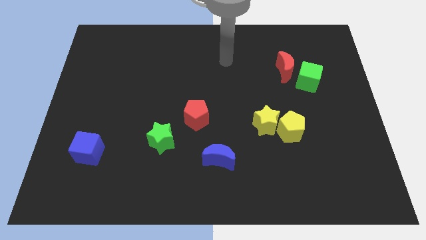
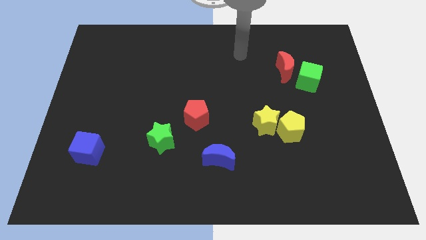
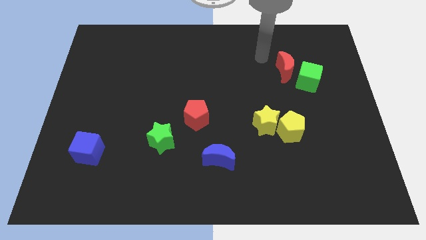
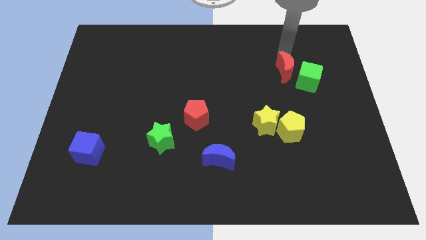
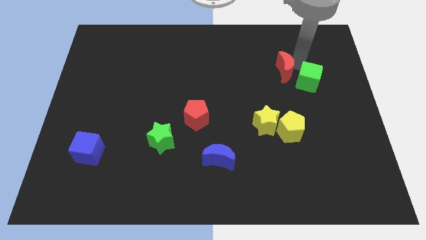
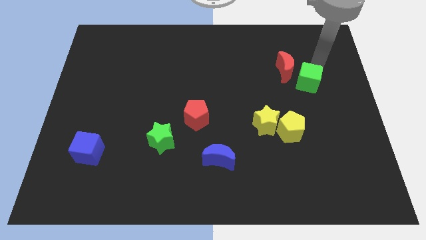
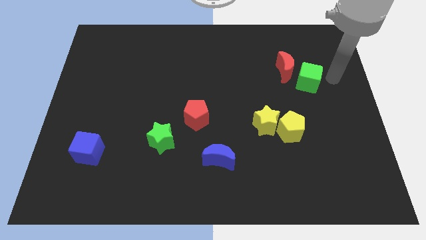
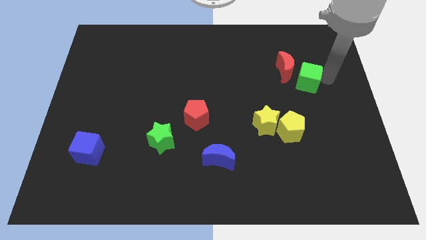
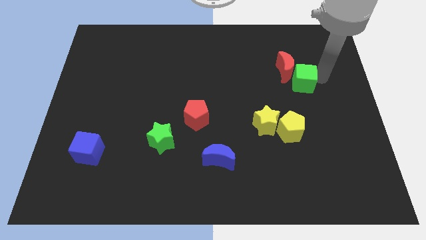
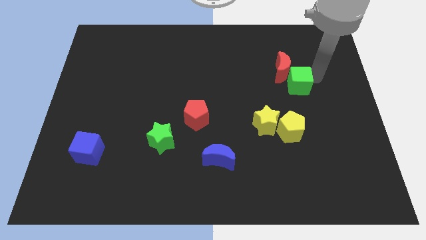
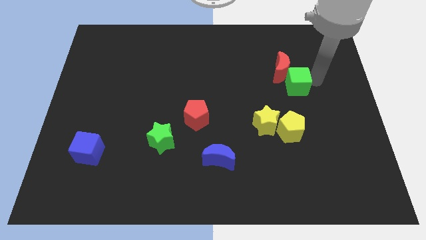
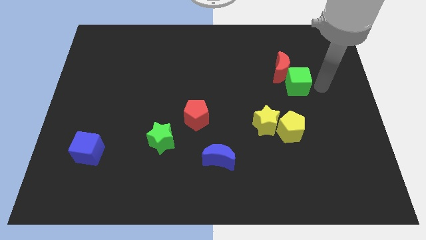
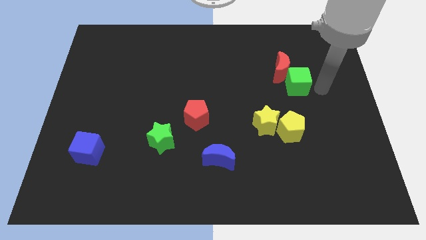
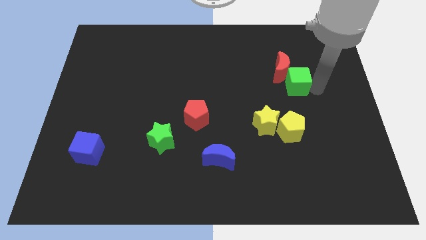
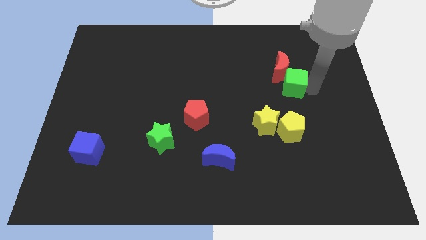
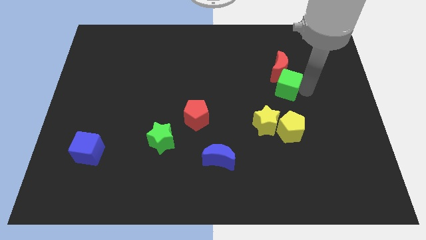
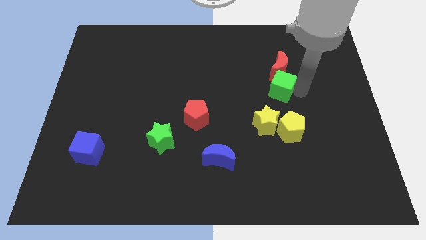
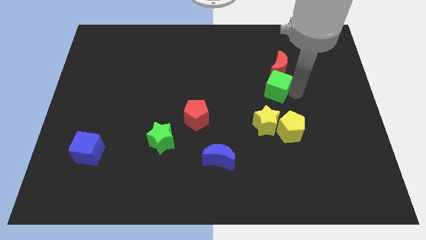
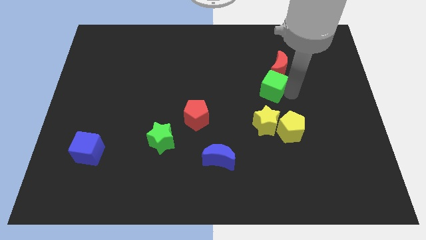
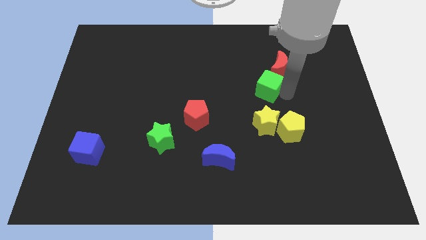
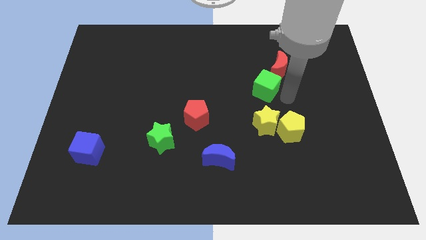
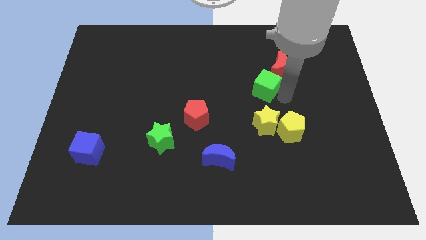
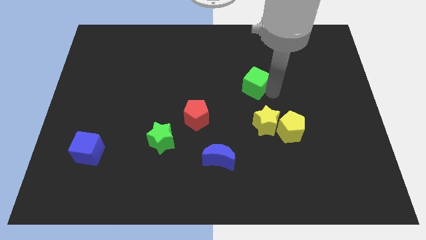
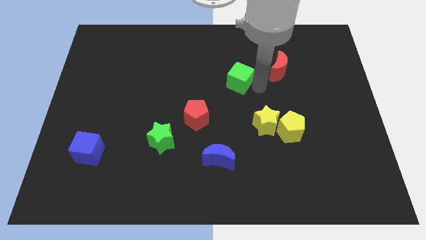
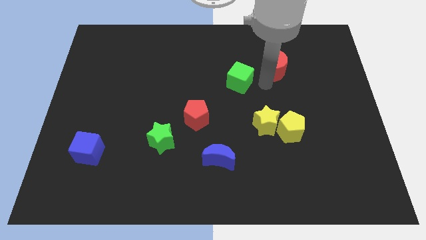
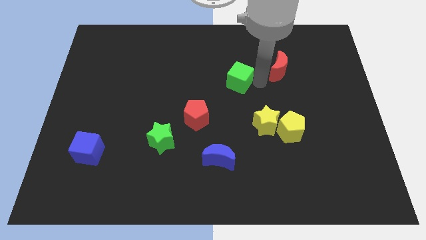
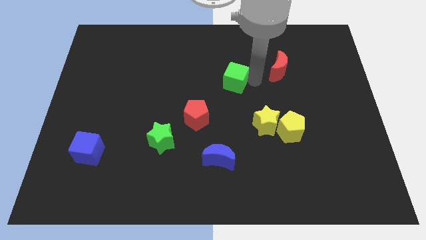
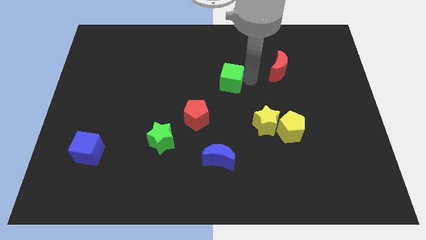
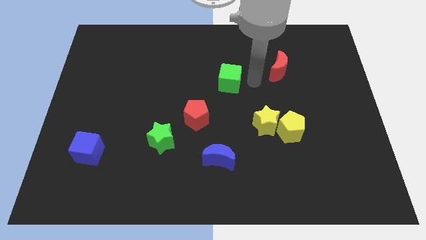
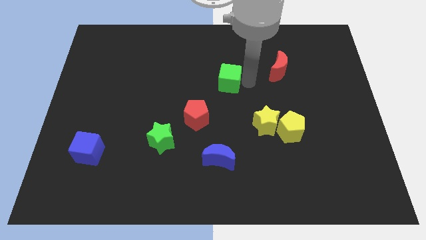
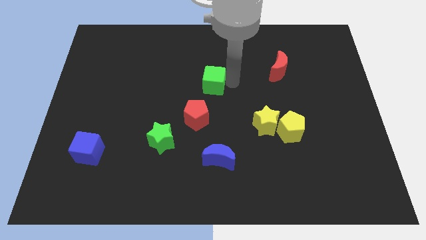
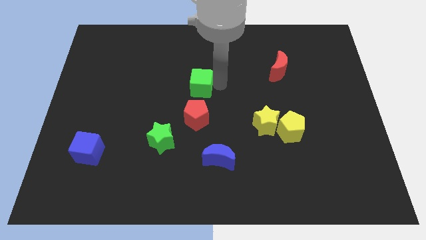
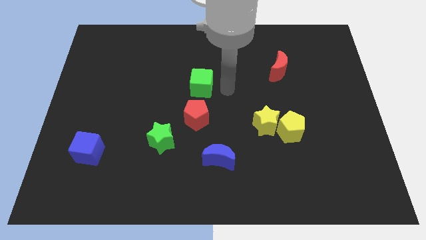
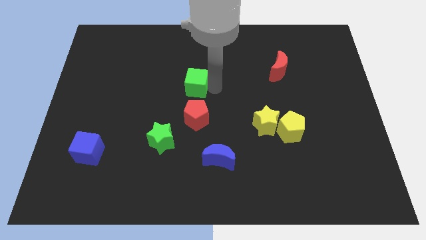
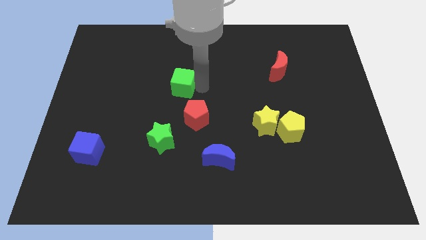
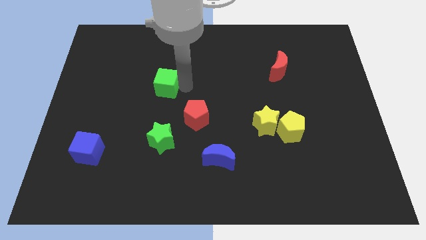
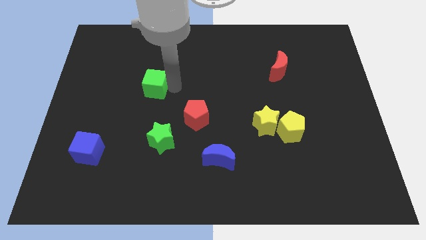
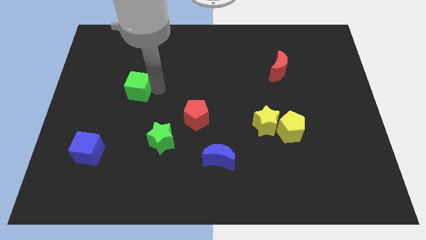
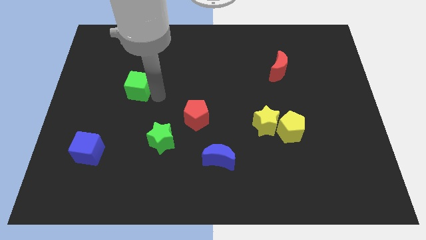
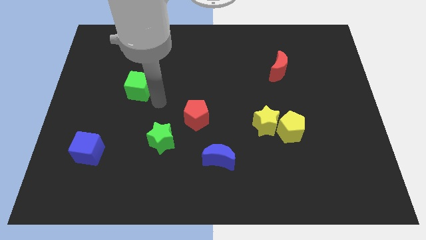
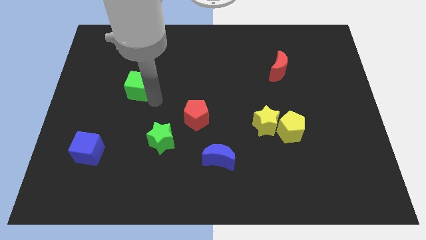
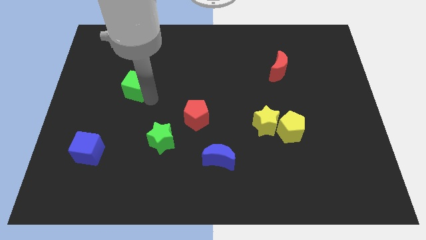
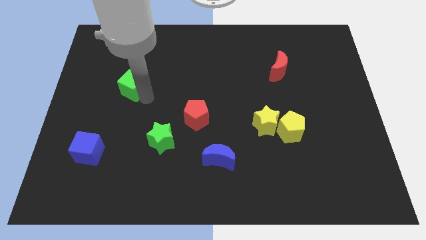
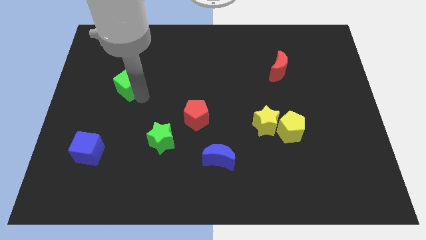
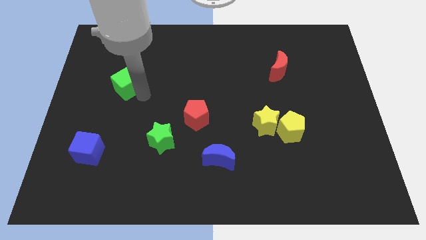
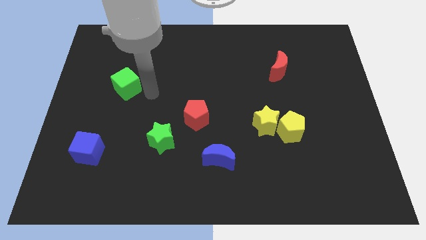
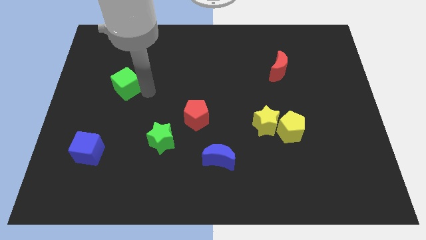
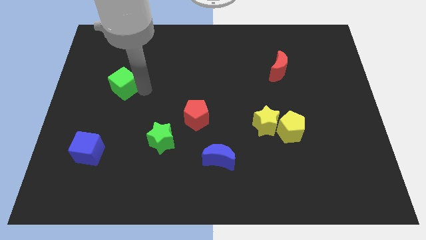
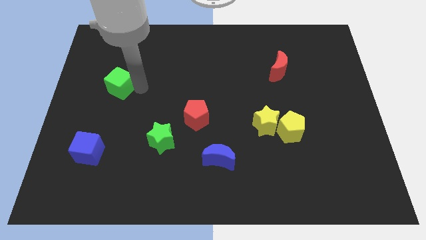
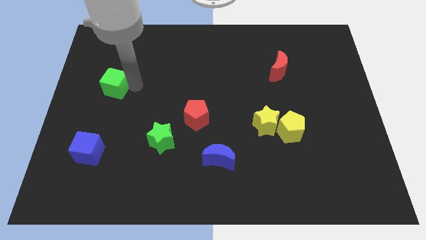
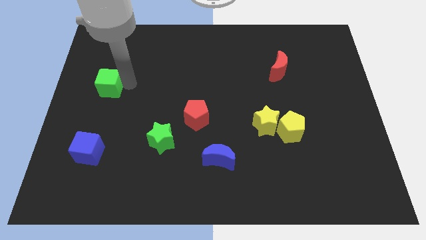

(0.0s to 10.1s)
slide the green cube to the left side of the board

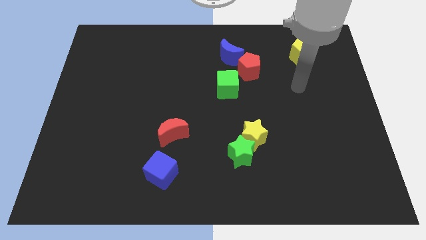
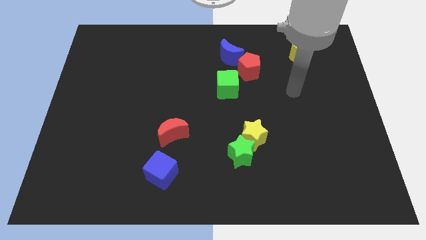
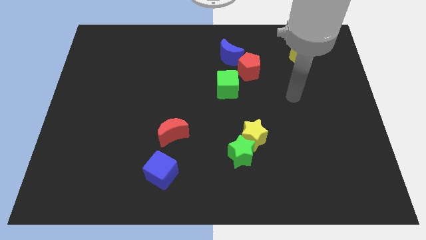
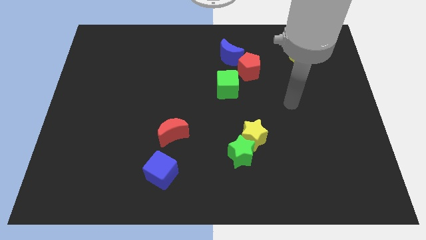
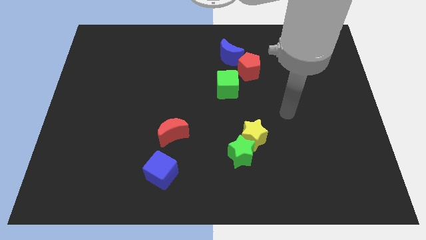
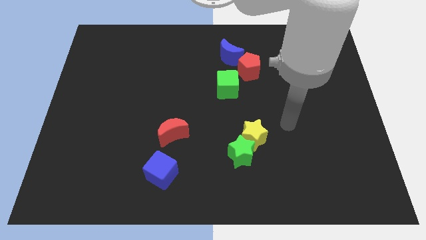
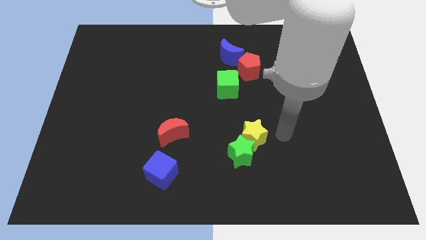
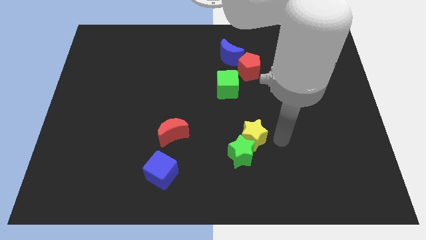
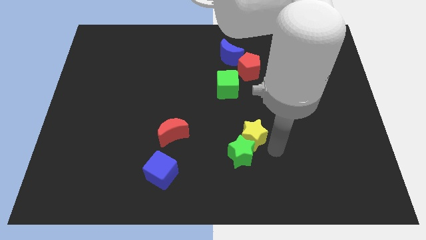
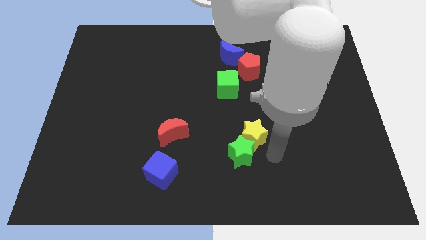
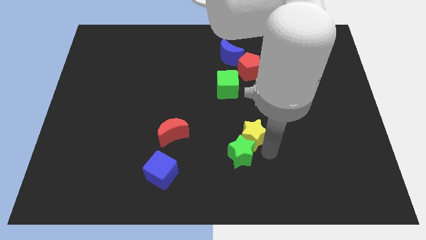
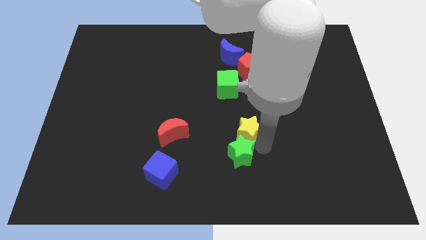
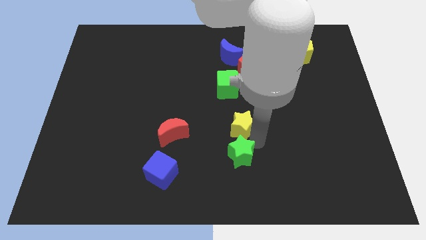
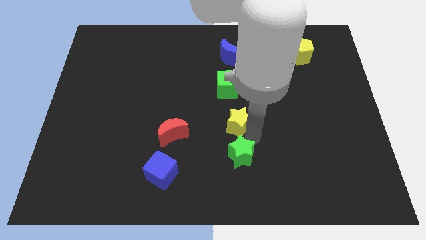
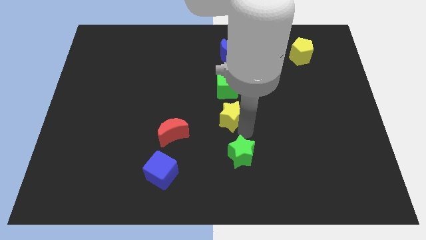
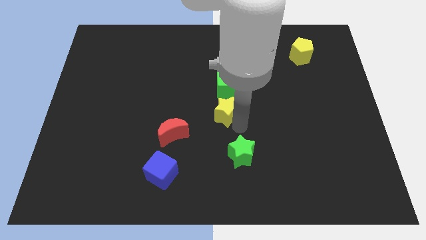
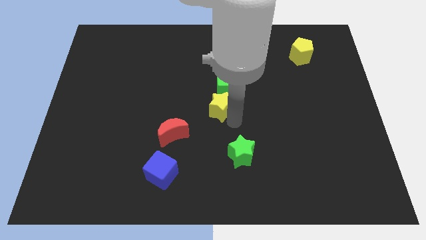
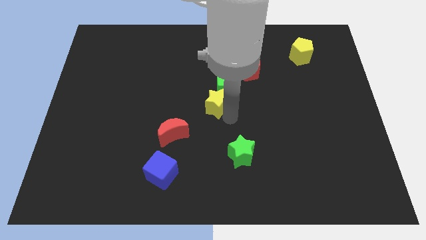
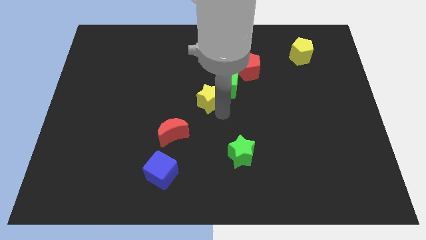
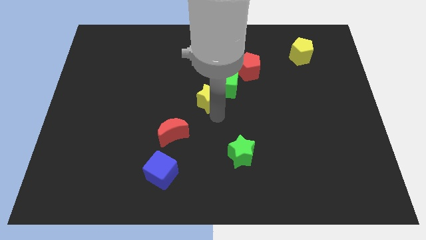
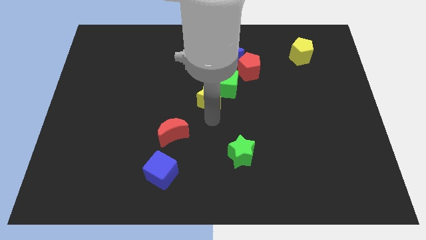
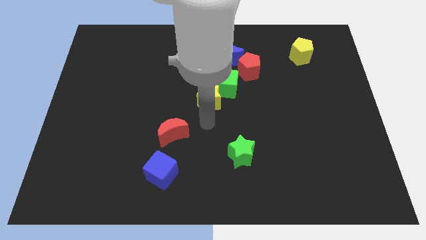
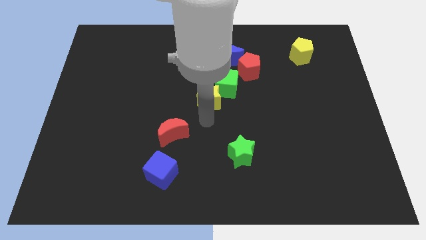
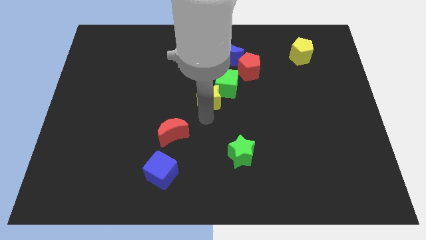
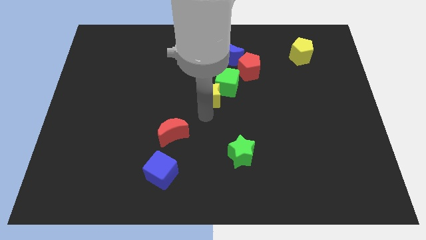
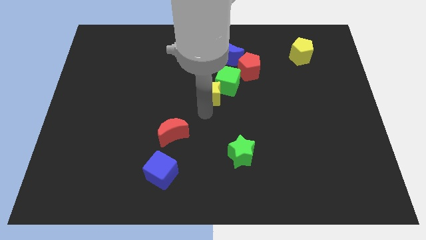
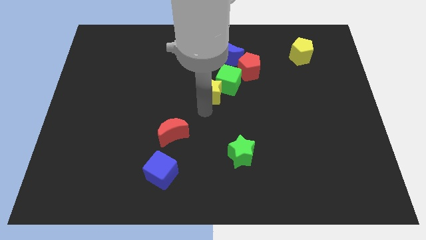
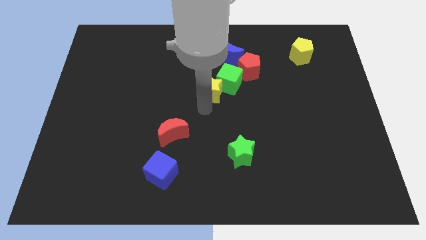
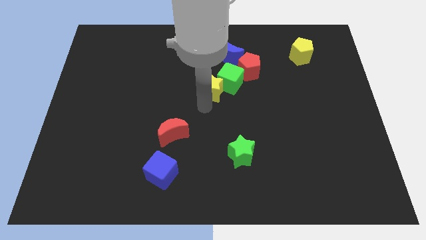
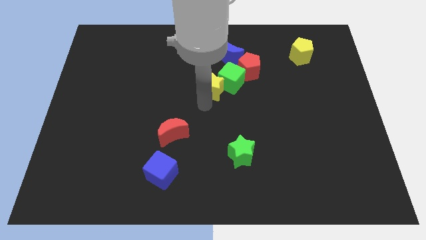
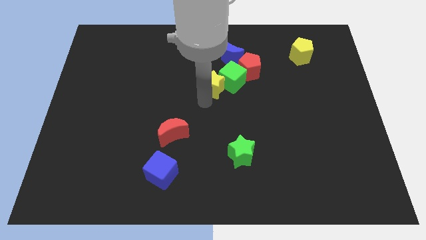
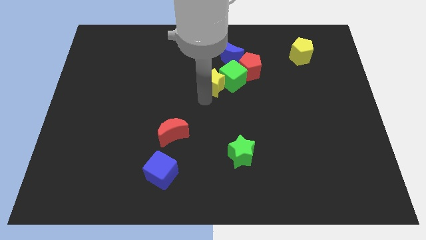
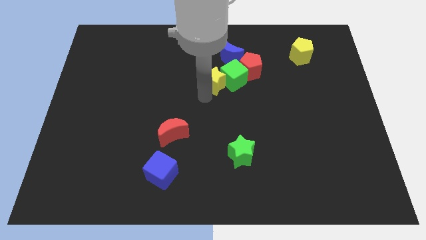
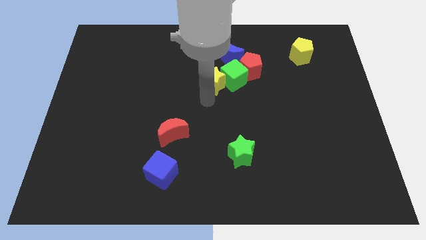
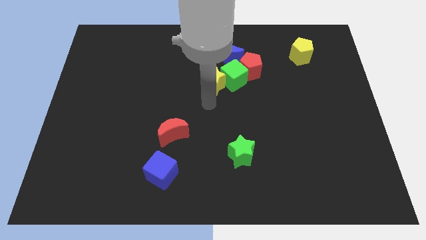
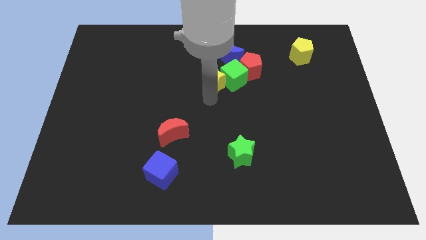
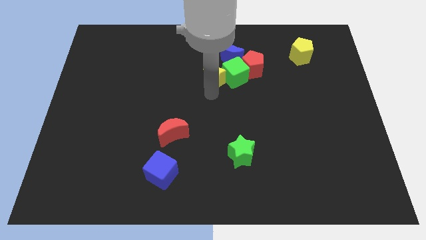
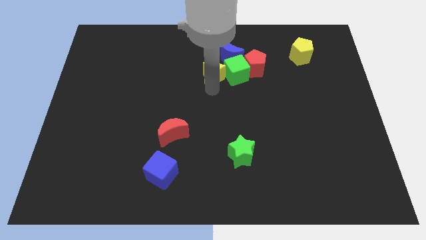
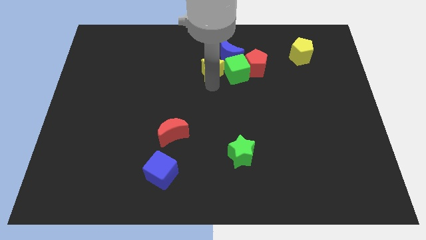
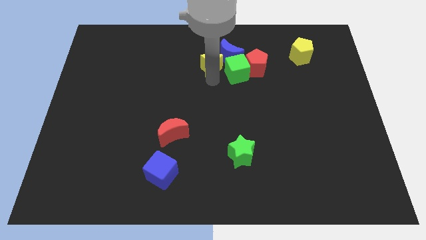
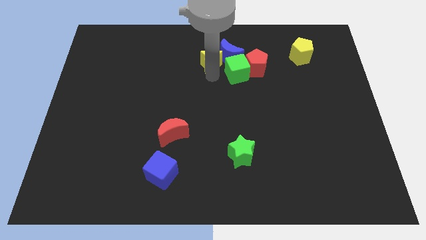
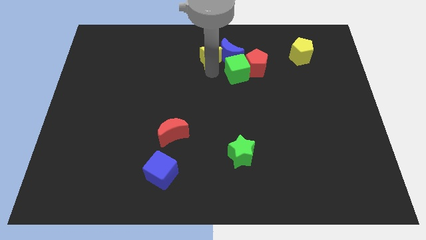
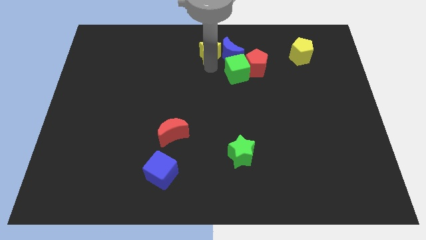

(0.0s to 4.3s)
move the yellow star to the towards your base
